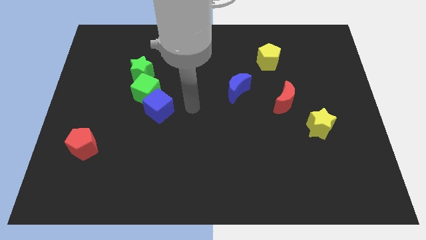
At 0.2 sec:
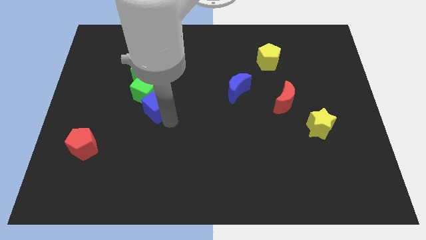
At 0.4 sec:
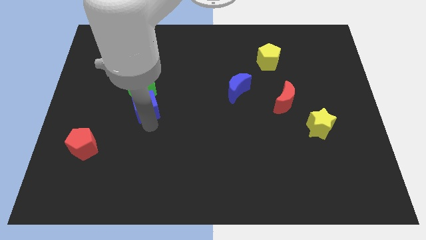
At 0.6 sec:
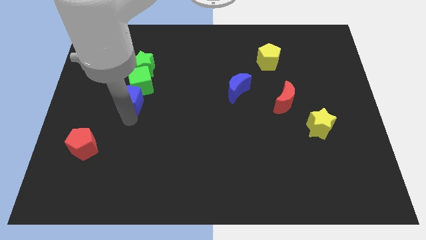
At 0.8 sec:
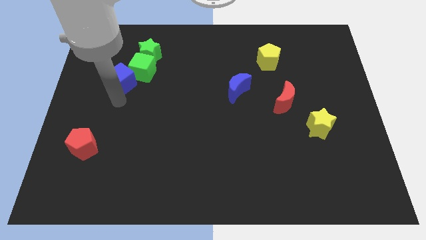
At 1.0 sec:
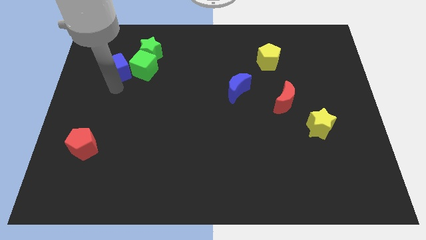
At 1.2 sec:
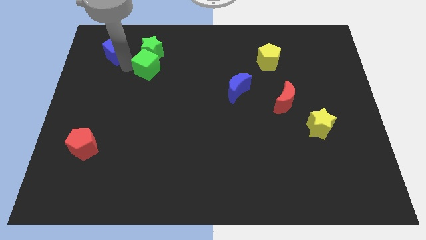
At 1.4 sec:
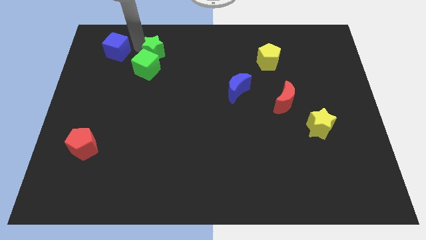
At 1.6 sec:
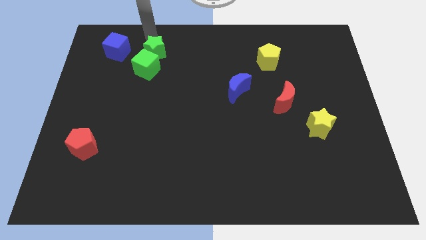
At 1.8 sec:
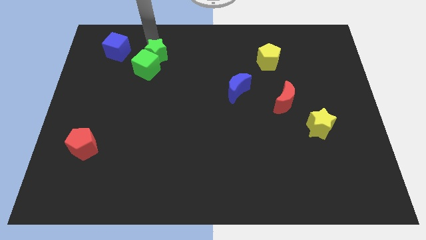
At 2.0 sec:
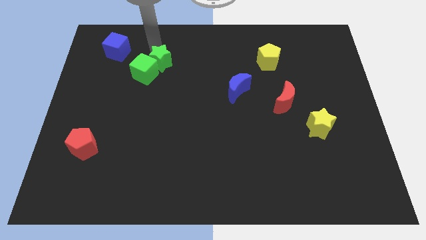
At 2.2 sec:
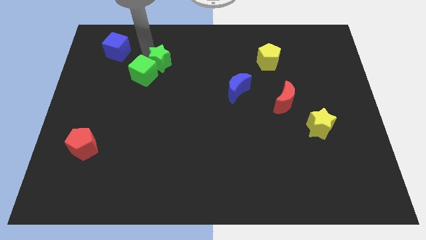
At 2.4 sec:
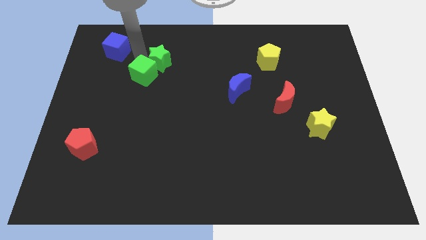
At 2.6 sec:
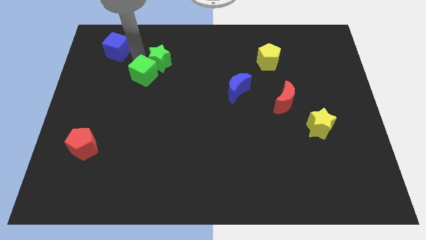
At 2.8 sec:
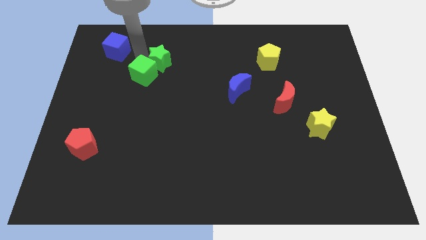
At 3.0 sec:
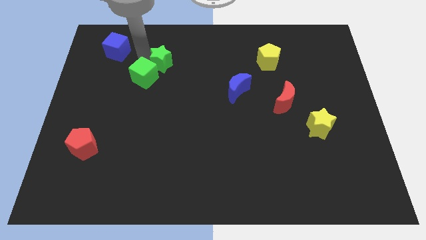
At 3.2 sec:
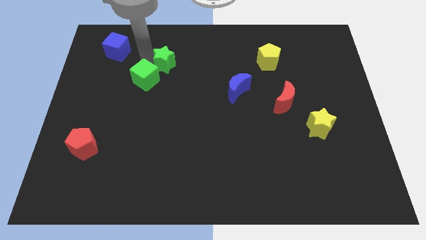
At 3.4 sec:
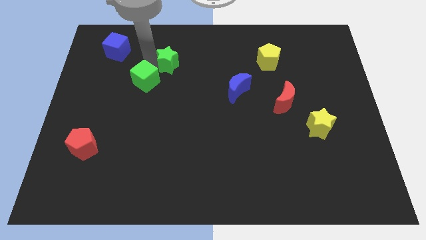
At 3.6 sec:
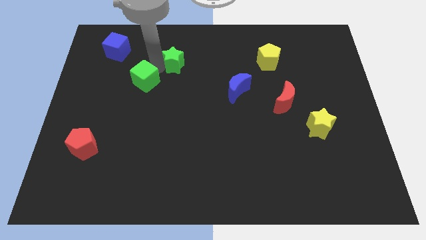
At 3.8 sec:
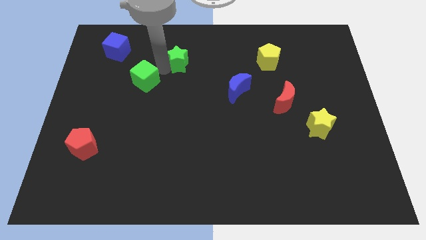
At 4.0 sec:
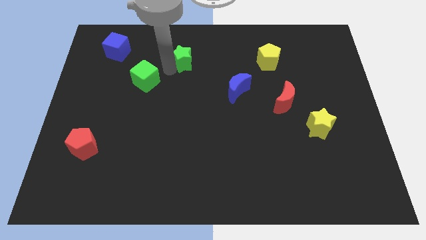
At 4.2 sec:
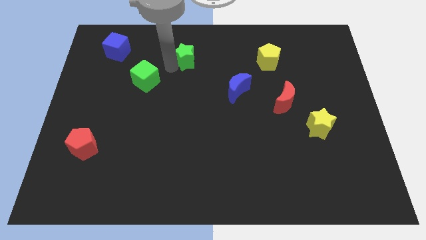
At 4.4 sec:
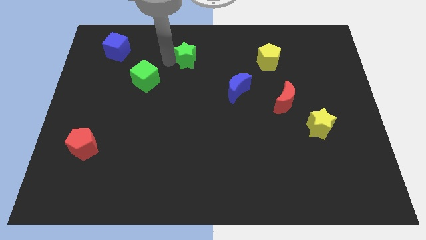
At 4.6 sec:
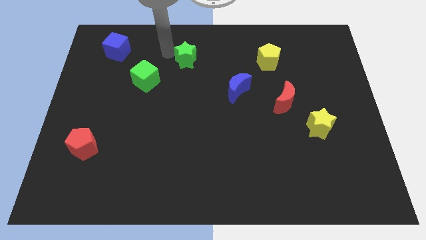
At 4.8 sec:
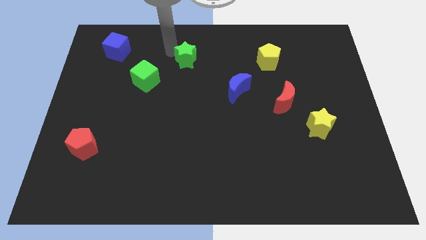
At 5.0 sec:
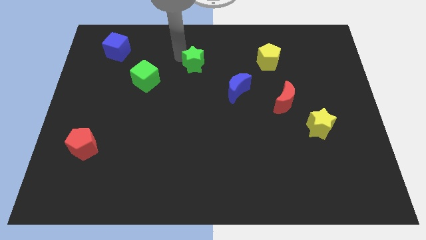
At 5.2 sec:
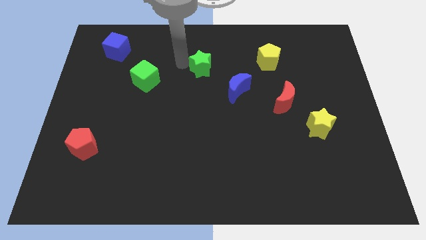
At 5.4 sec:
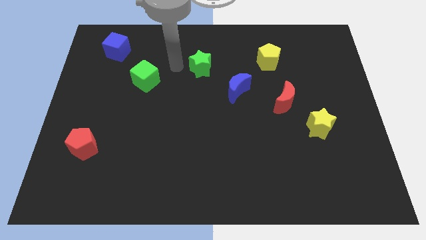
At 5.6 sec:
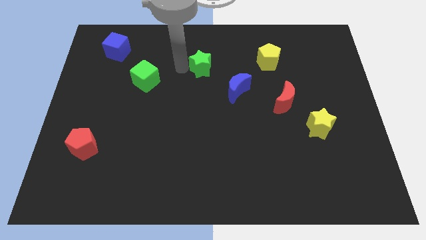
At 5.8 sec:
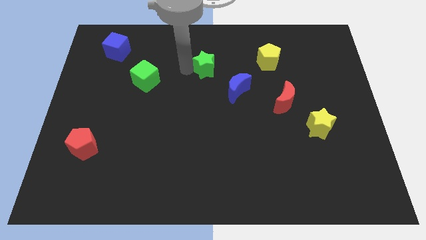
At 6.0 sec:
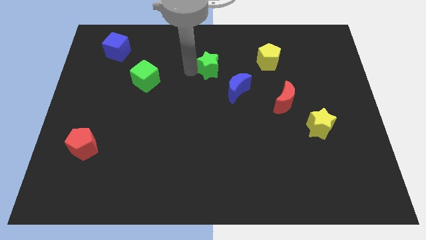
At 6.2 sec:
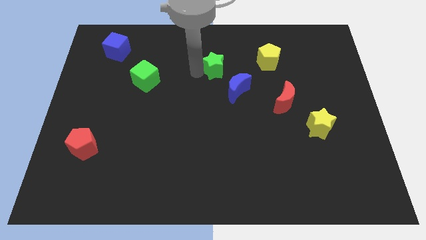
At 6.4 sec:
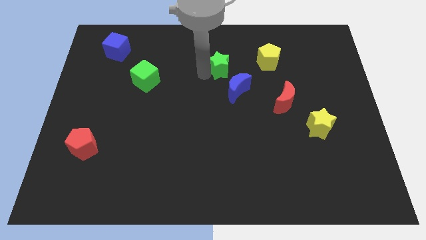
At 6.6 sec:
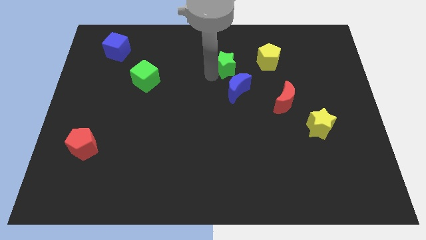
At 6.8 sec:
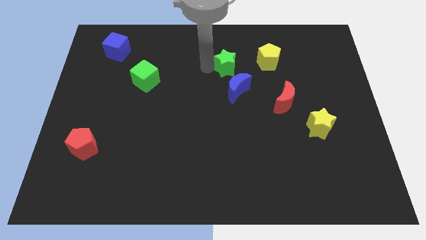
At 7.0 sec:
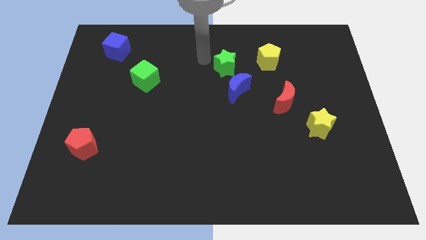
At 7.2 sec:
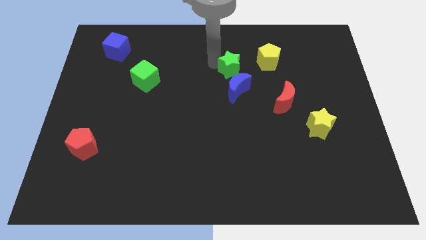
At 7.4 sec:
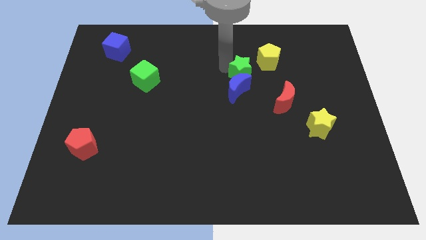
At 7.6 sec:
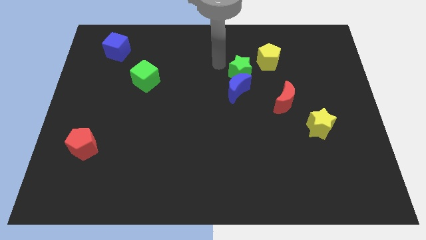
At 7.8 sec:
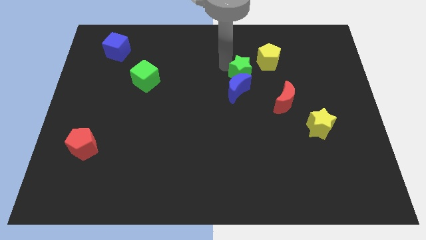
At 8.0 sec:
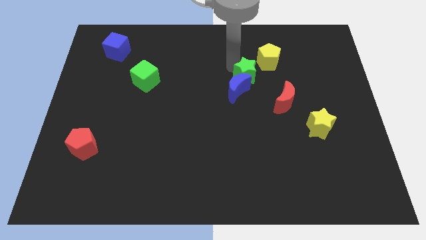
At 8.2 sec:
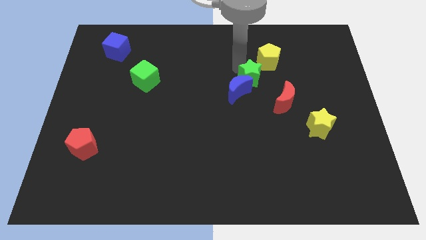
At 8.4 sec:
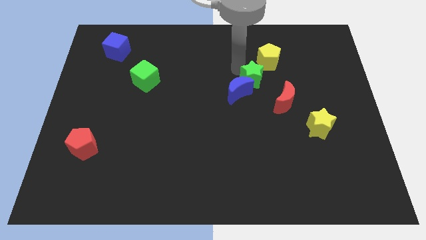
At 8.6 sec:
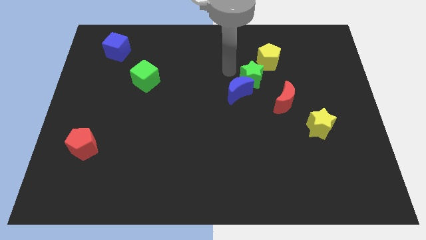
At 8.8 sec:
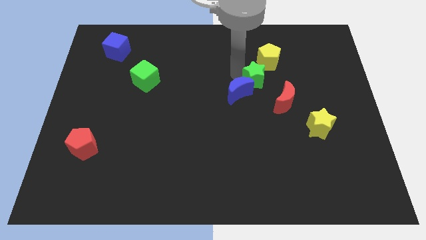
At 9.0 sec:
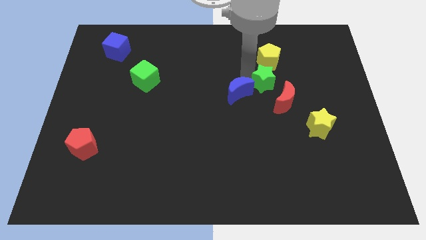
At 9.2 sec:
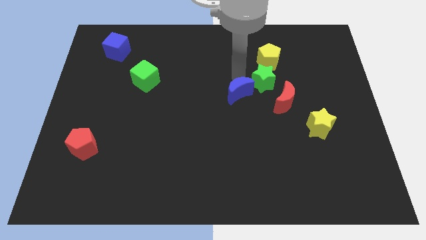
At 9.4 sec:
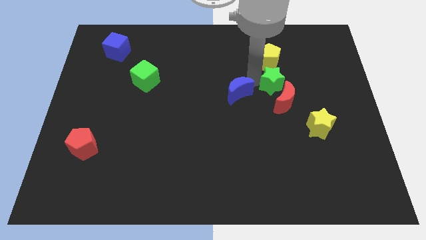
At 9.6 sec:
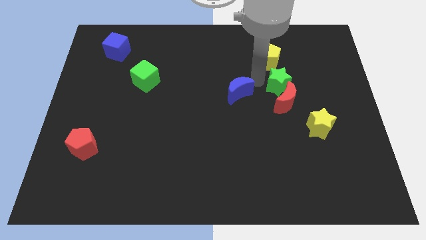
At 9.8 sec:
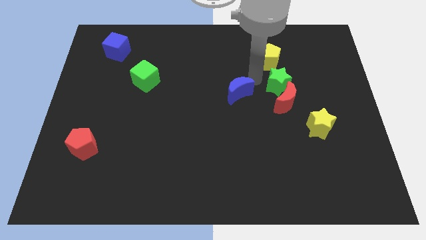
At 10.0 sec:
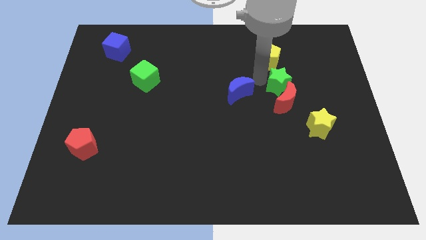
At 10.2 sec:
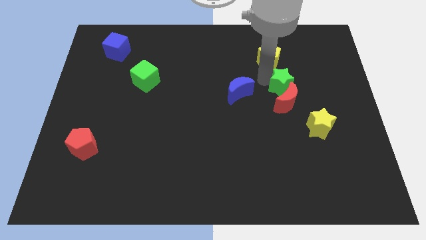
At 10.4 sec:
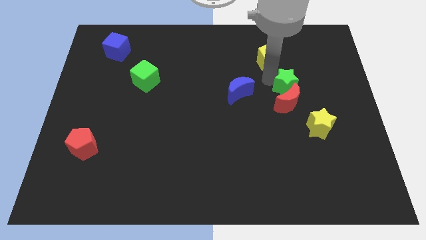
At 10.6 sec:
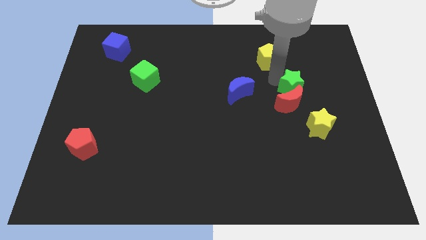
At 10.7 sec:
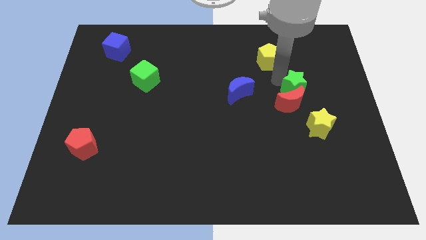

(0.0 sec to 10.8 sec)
slide the green star above the yellow star

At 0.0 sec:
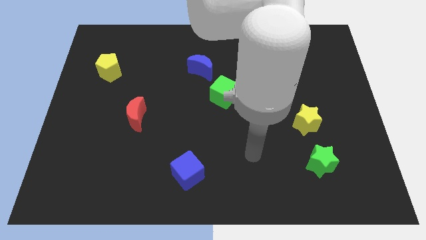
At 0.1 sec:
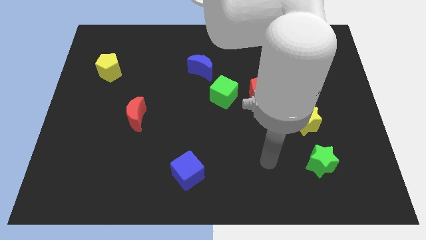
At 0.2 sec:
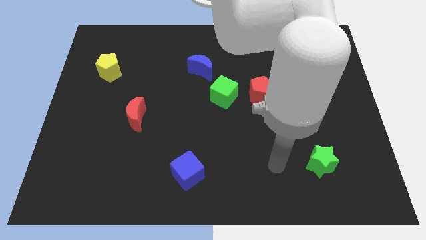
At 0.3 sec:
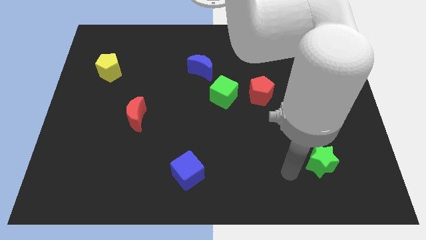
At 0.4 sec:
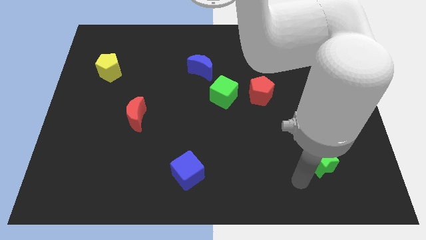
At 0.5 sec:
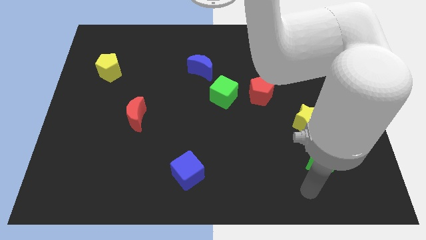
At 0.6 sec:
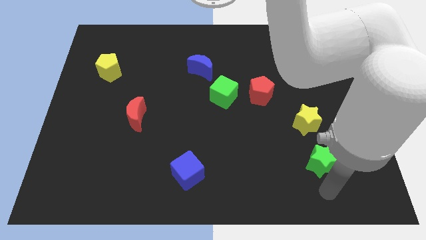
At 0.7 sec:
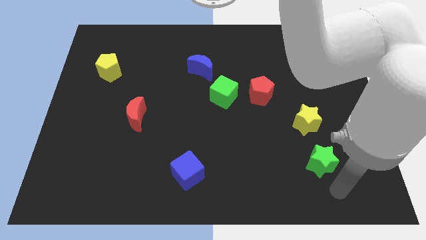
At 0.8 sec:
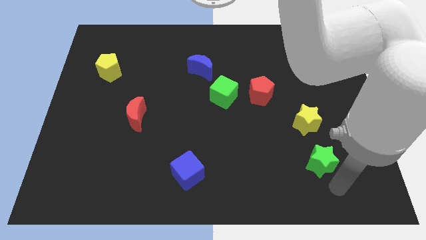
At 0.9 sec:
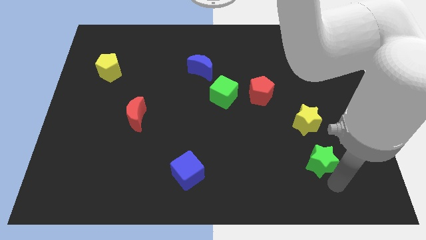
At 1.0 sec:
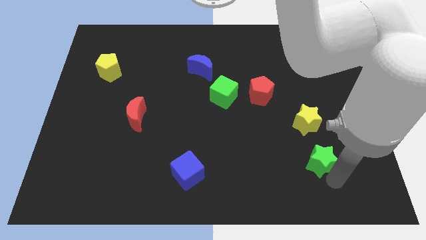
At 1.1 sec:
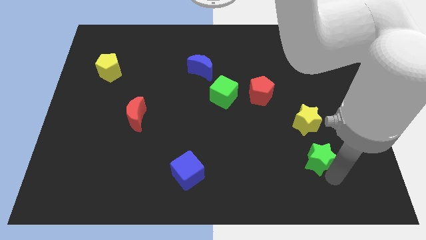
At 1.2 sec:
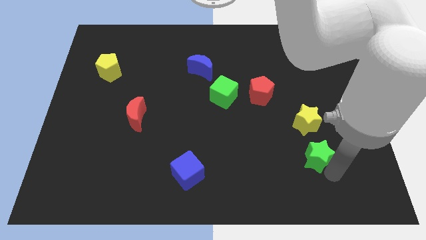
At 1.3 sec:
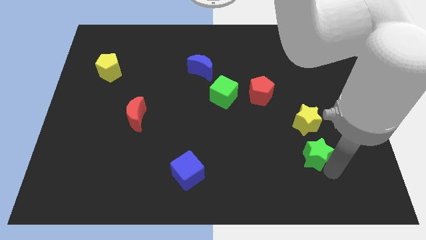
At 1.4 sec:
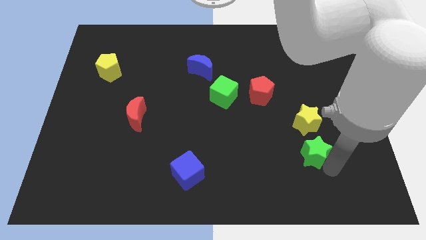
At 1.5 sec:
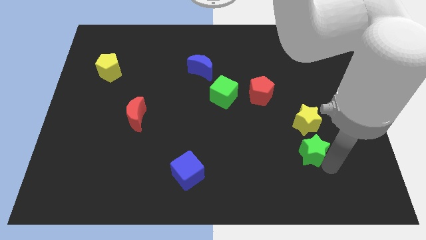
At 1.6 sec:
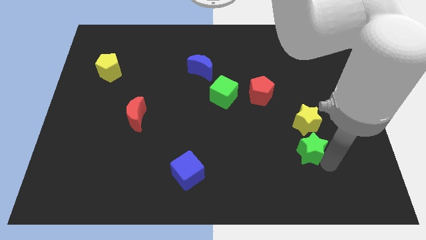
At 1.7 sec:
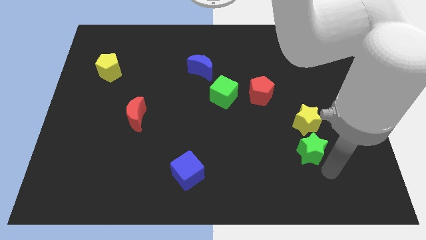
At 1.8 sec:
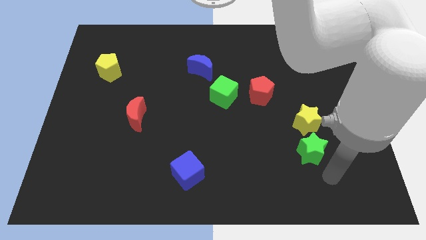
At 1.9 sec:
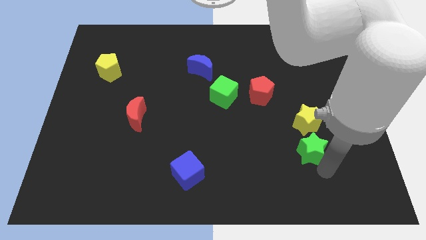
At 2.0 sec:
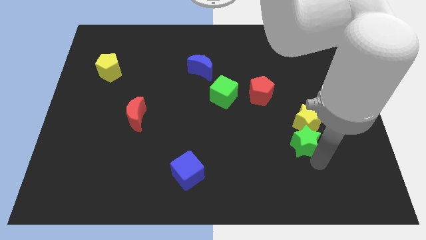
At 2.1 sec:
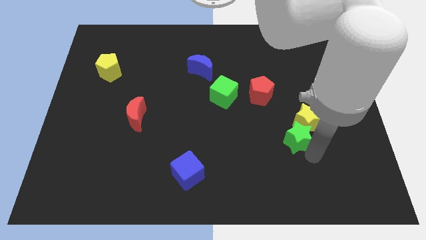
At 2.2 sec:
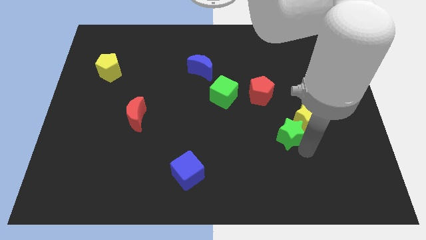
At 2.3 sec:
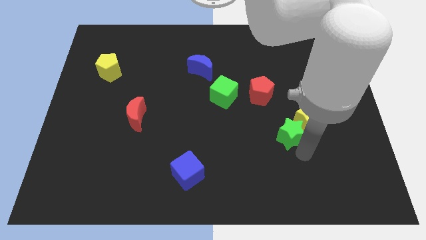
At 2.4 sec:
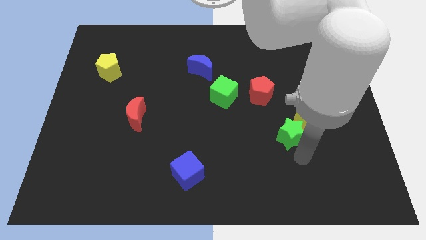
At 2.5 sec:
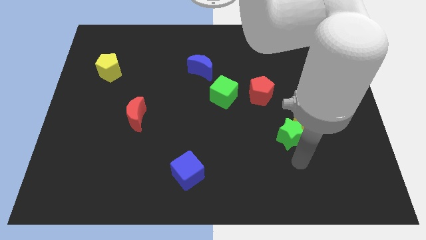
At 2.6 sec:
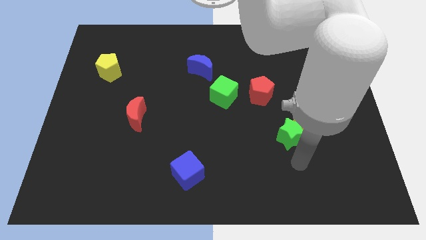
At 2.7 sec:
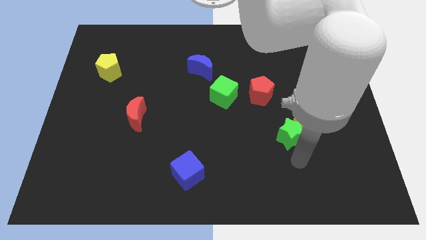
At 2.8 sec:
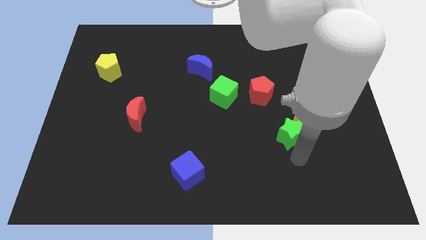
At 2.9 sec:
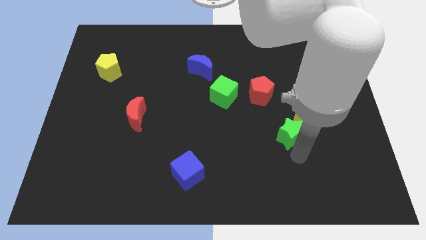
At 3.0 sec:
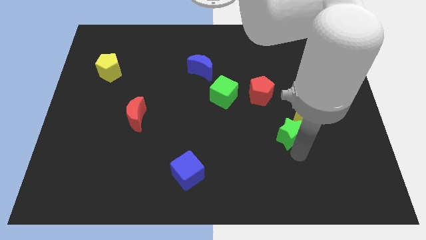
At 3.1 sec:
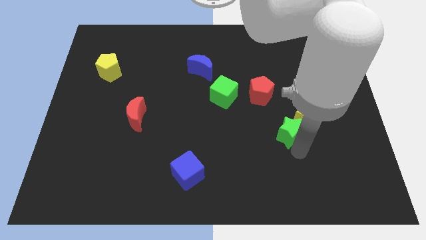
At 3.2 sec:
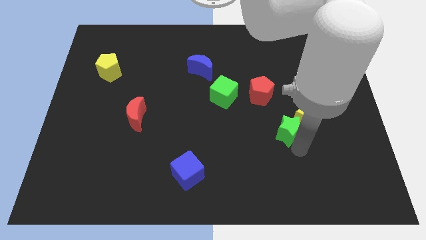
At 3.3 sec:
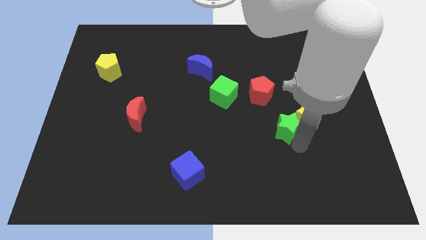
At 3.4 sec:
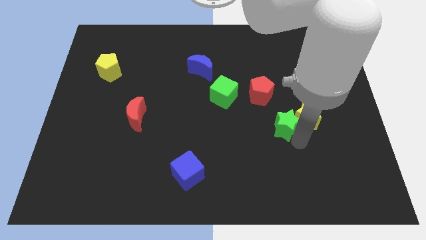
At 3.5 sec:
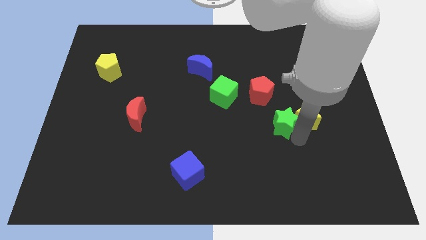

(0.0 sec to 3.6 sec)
put the green star to the top left of the yellow star
